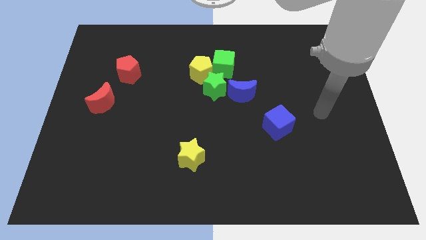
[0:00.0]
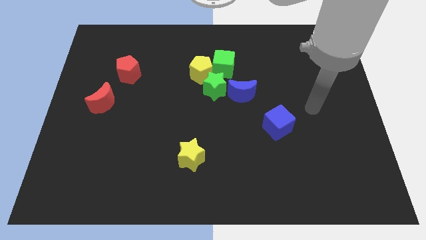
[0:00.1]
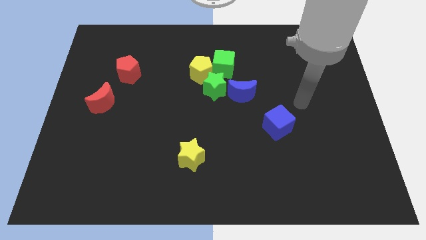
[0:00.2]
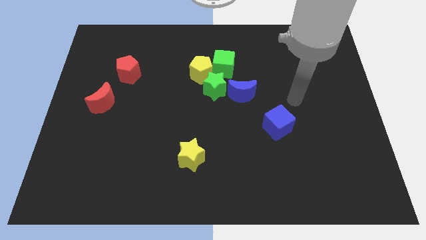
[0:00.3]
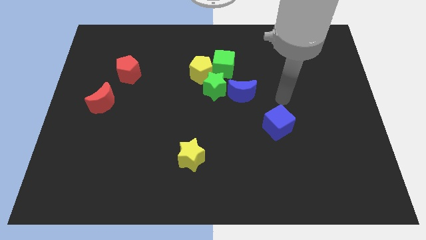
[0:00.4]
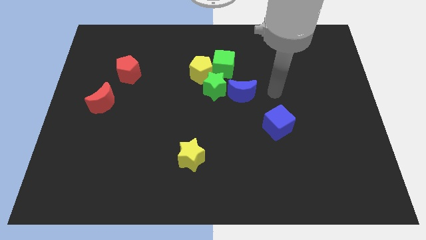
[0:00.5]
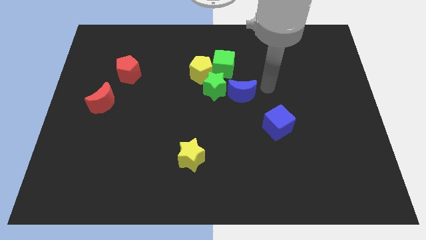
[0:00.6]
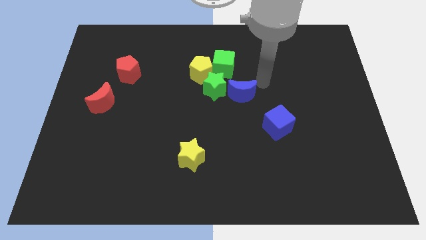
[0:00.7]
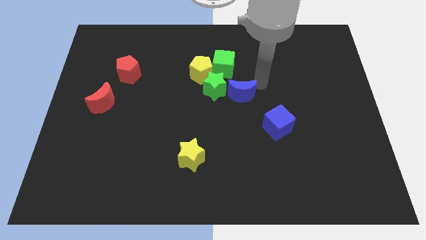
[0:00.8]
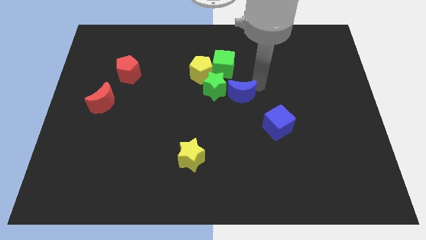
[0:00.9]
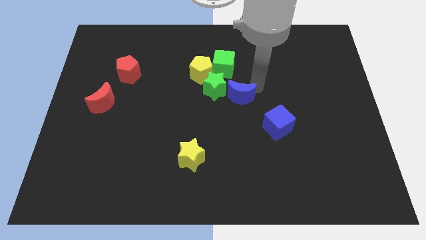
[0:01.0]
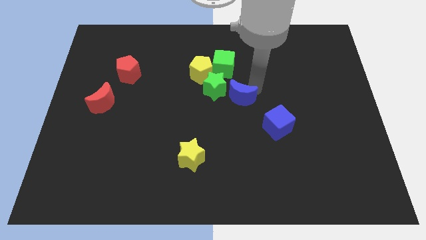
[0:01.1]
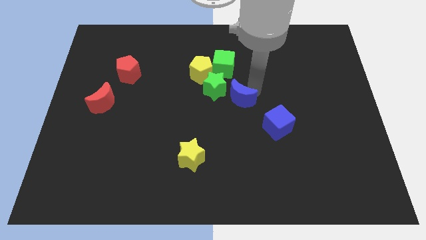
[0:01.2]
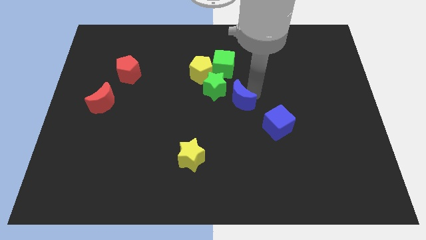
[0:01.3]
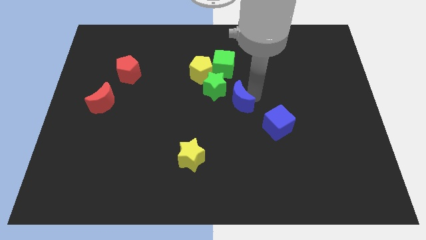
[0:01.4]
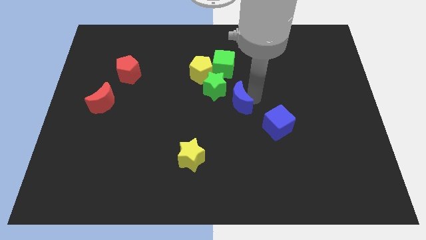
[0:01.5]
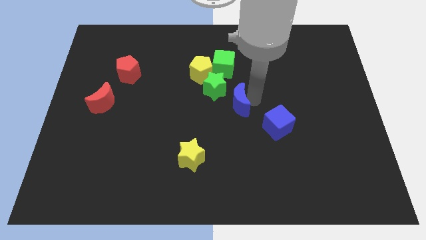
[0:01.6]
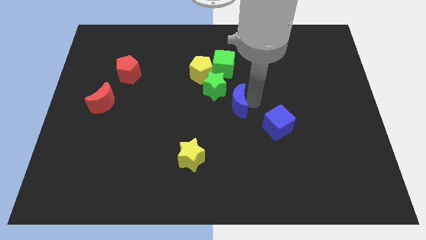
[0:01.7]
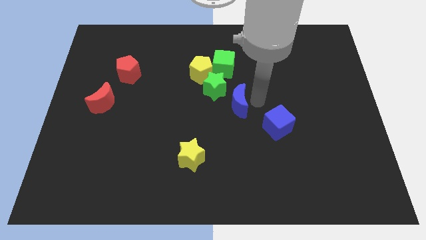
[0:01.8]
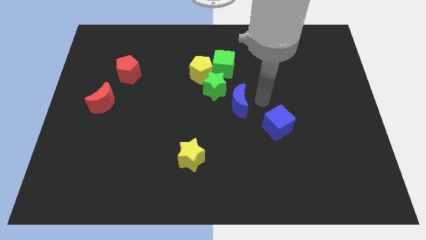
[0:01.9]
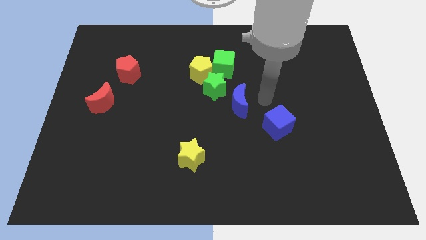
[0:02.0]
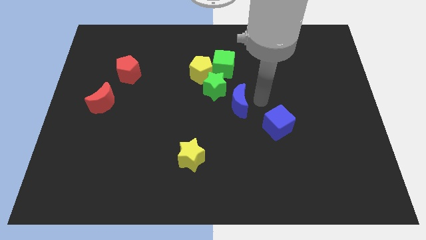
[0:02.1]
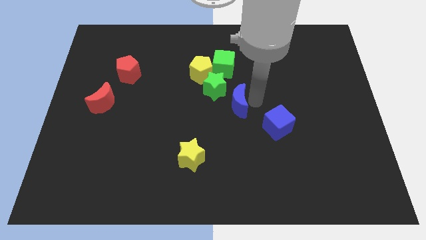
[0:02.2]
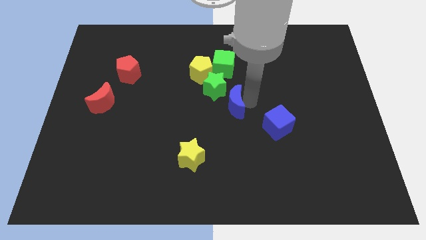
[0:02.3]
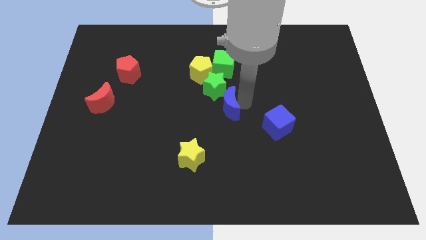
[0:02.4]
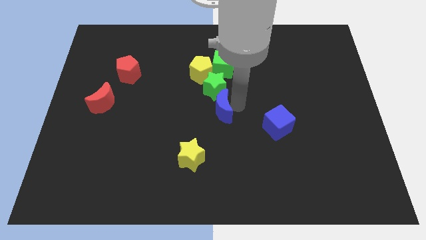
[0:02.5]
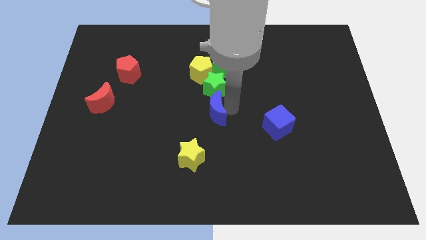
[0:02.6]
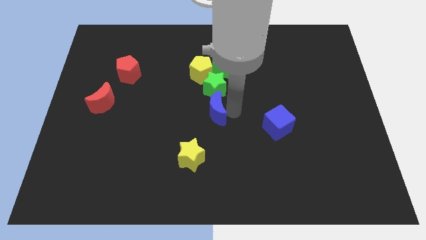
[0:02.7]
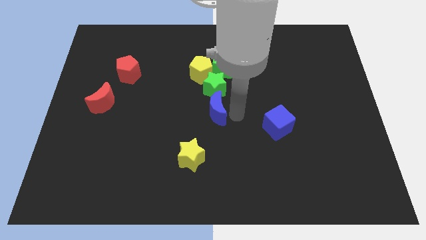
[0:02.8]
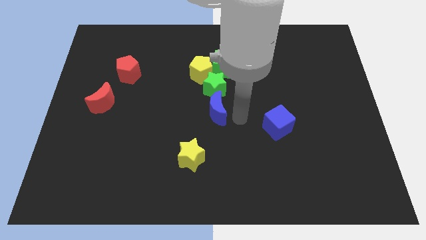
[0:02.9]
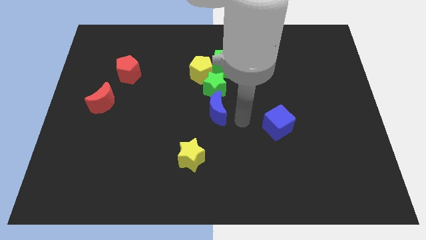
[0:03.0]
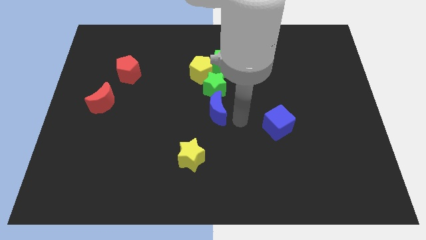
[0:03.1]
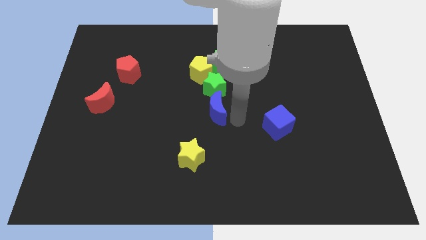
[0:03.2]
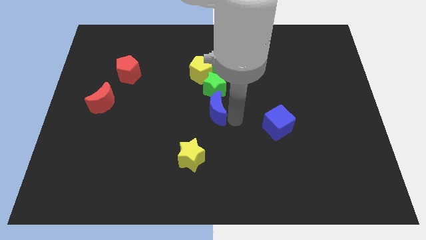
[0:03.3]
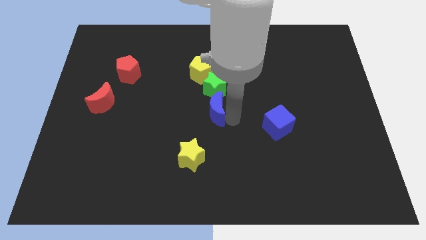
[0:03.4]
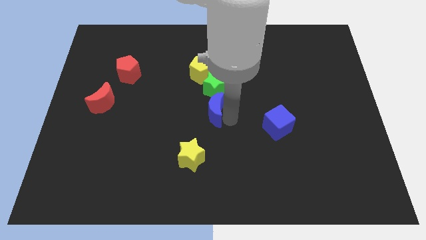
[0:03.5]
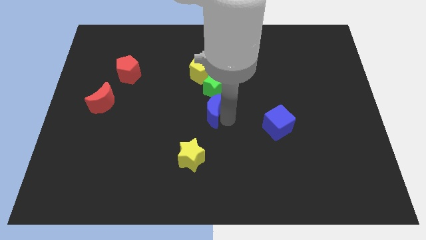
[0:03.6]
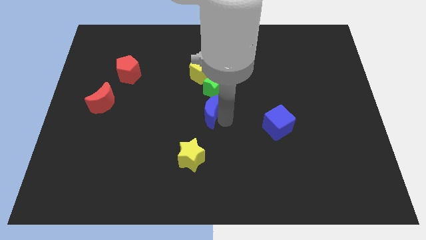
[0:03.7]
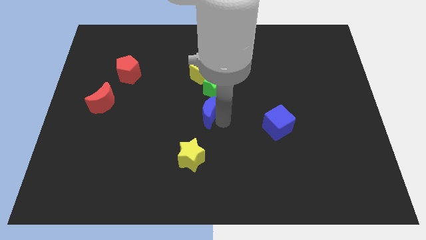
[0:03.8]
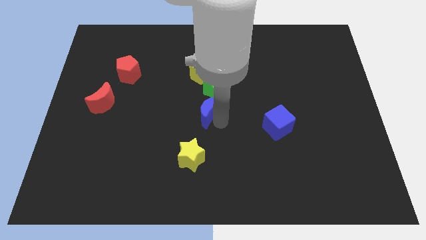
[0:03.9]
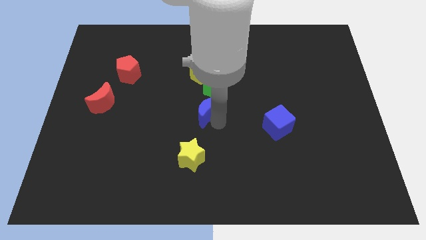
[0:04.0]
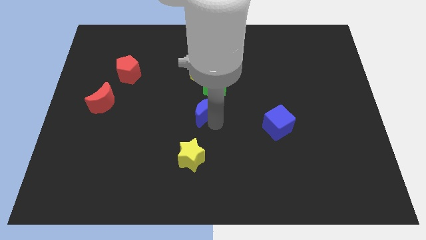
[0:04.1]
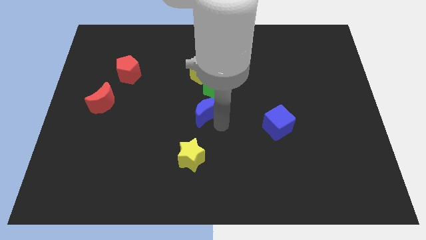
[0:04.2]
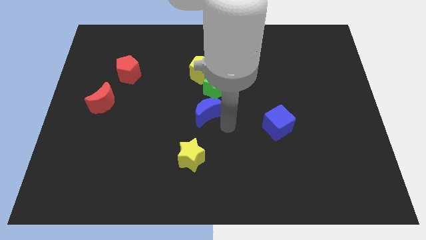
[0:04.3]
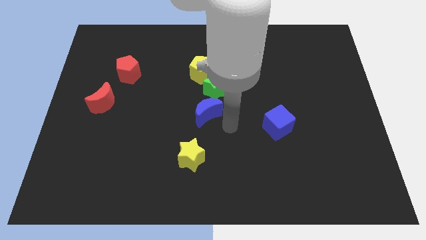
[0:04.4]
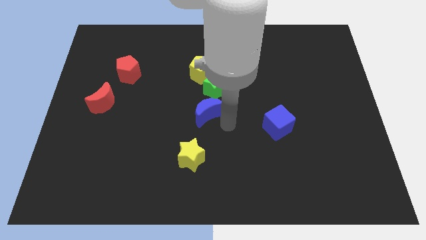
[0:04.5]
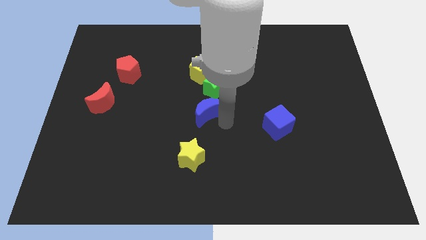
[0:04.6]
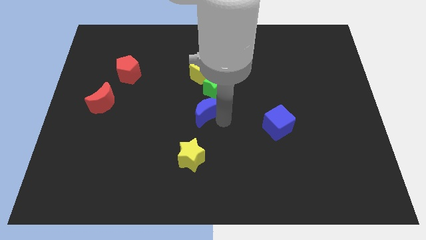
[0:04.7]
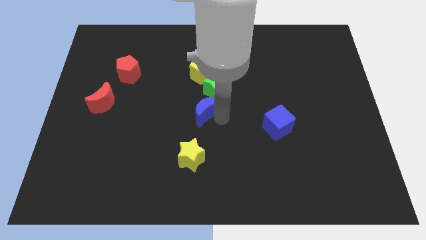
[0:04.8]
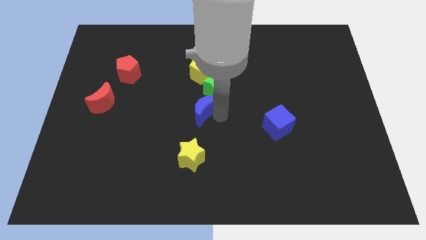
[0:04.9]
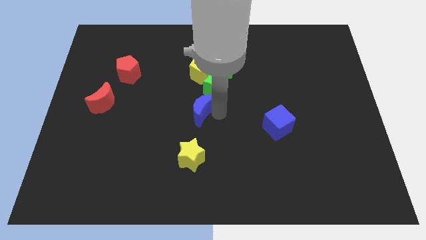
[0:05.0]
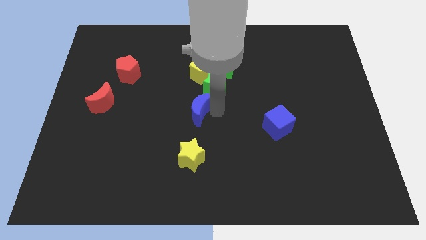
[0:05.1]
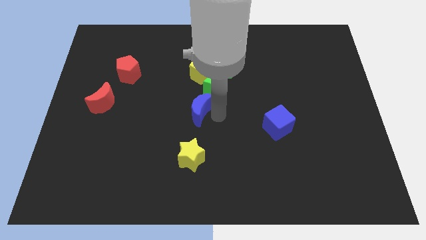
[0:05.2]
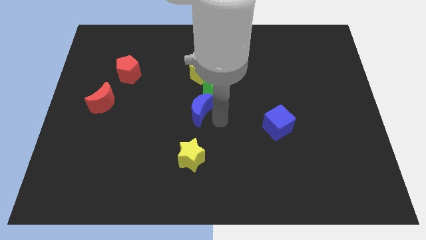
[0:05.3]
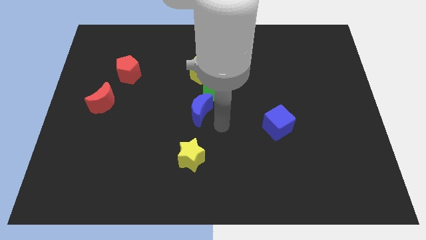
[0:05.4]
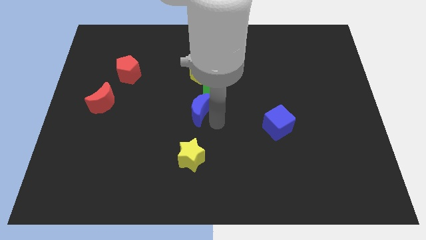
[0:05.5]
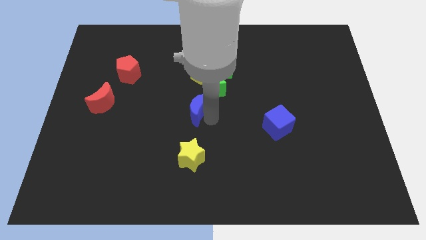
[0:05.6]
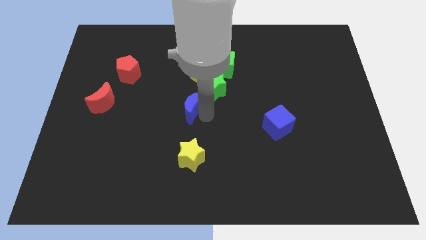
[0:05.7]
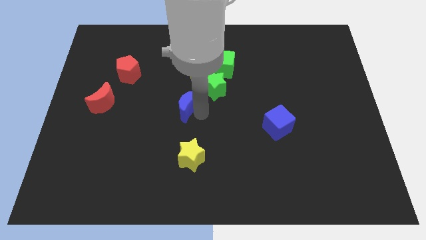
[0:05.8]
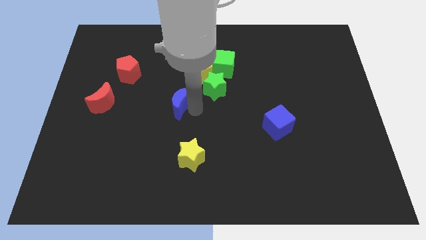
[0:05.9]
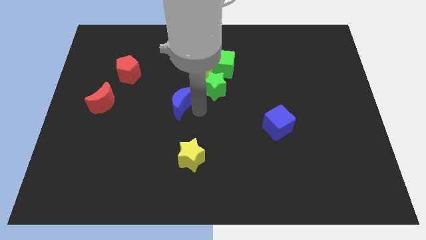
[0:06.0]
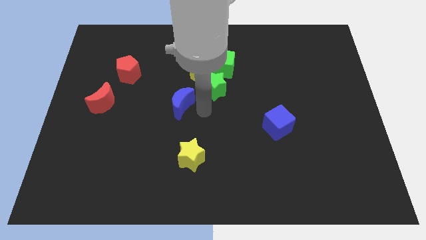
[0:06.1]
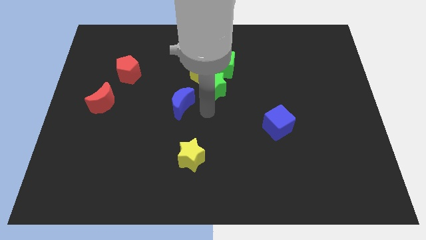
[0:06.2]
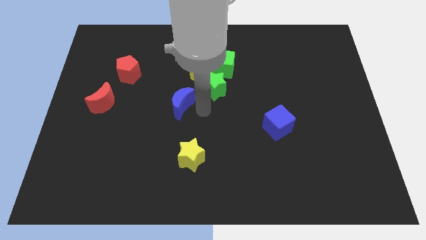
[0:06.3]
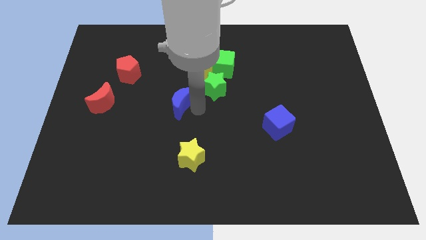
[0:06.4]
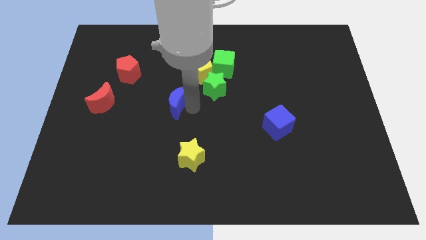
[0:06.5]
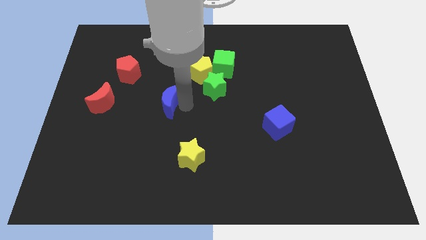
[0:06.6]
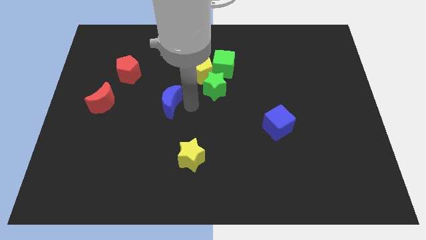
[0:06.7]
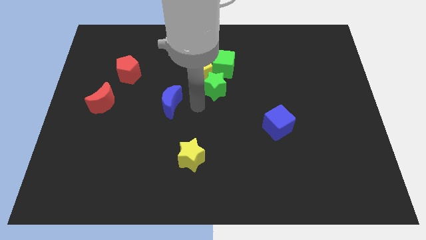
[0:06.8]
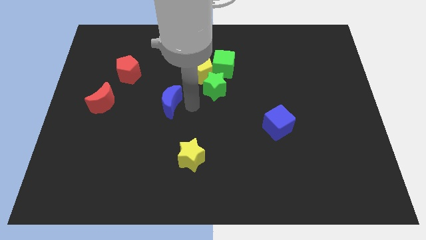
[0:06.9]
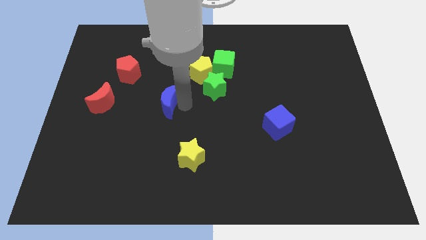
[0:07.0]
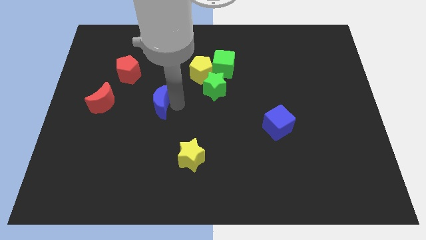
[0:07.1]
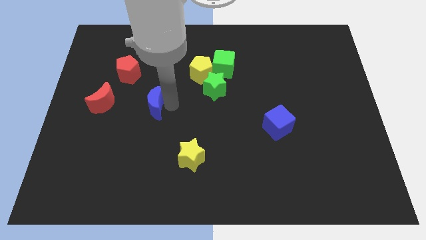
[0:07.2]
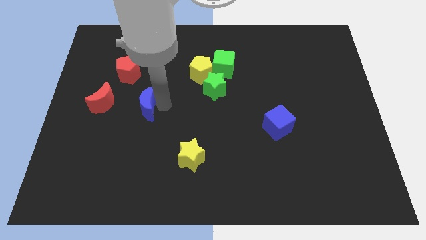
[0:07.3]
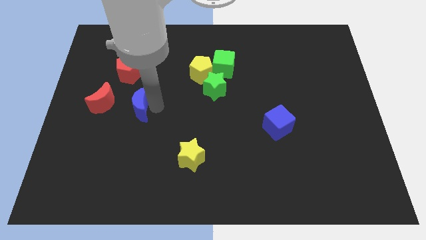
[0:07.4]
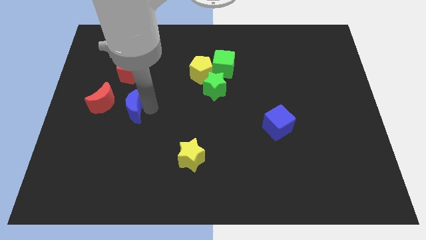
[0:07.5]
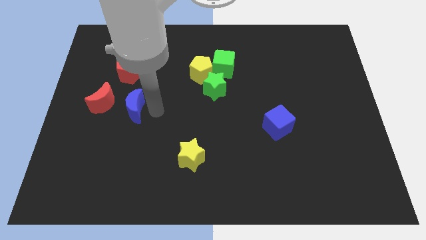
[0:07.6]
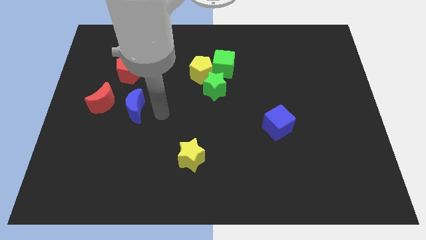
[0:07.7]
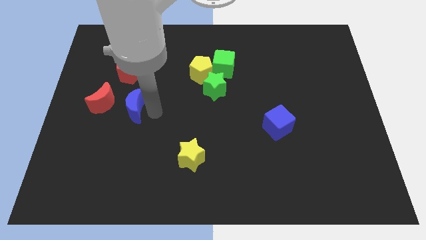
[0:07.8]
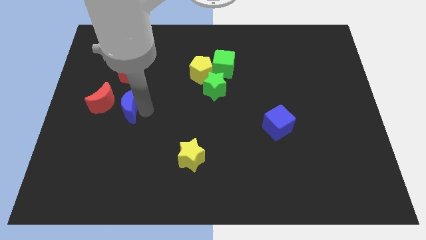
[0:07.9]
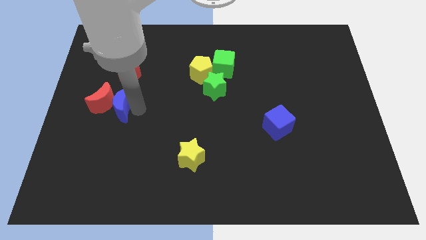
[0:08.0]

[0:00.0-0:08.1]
move the blue moon close to the red moon
